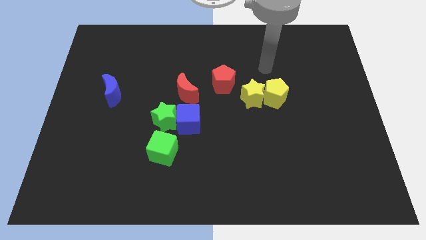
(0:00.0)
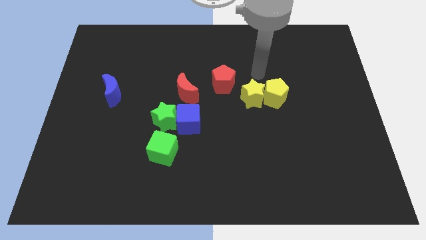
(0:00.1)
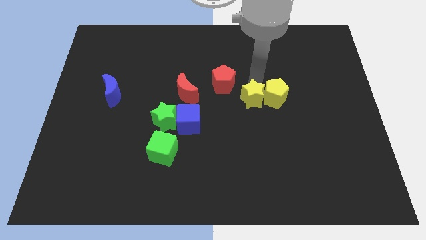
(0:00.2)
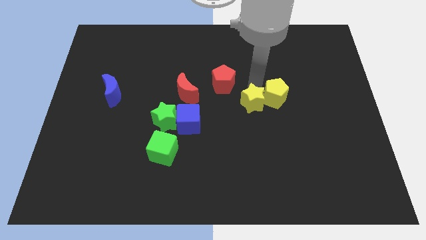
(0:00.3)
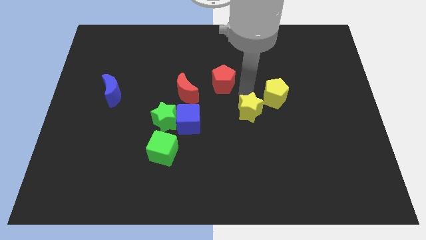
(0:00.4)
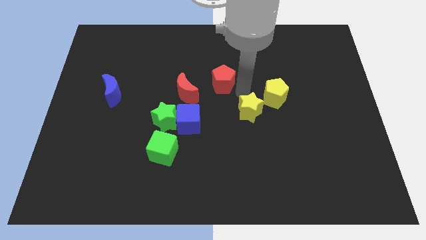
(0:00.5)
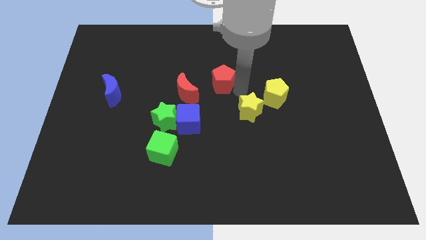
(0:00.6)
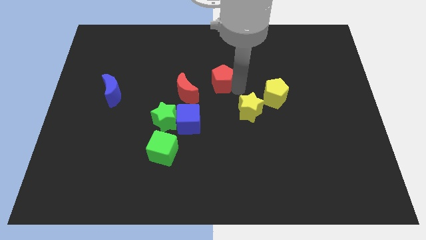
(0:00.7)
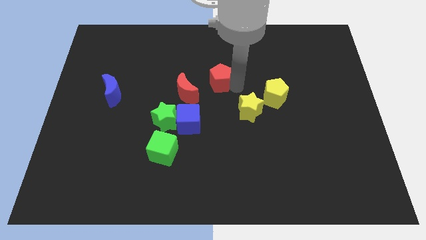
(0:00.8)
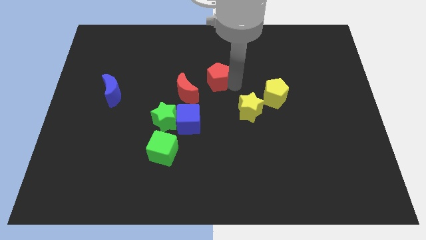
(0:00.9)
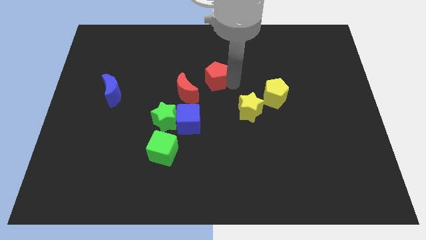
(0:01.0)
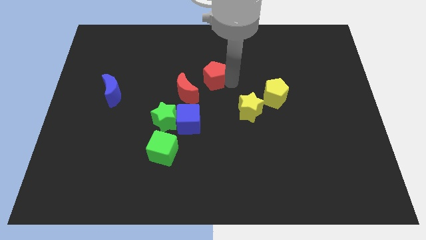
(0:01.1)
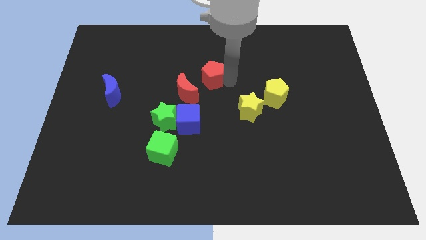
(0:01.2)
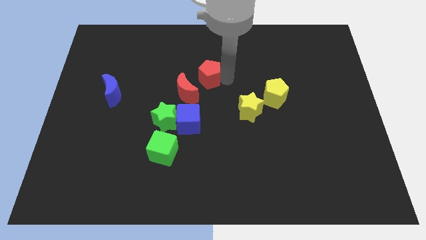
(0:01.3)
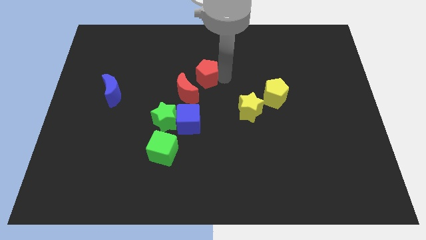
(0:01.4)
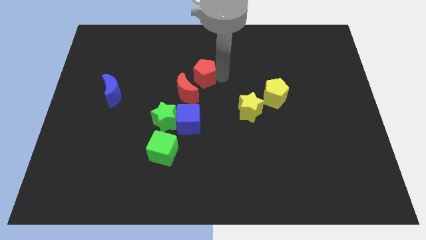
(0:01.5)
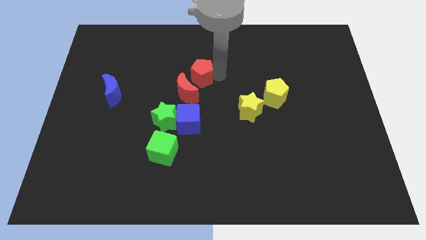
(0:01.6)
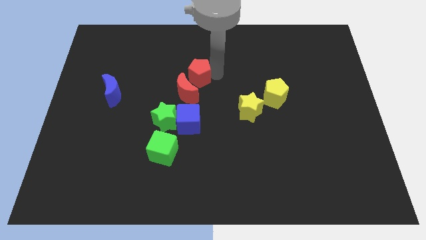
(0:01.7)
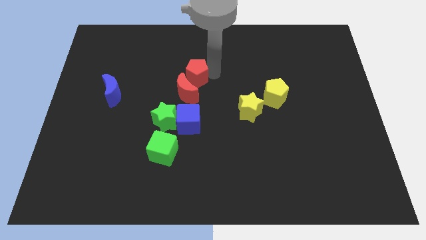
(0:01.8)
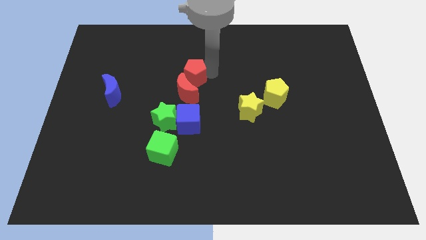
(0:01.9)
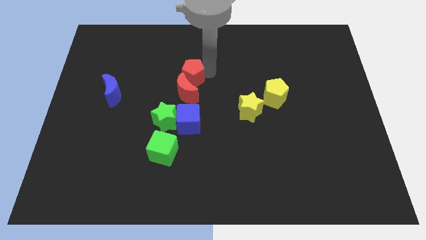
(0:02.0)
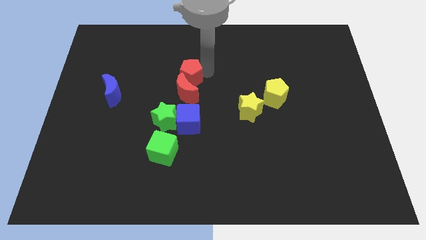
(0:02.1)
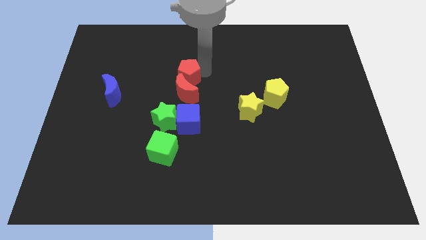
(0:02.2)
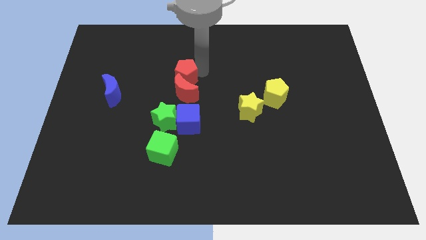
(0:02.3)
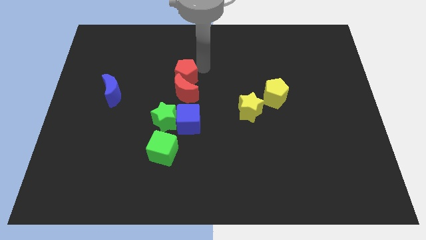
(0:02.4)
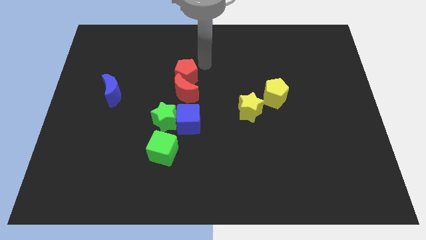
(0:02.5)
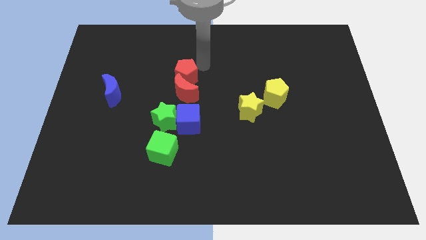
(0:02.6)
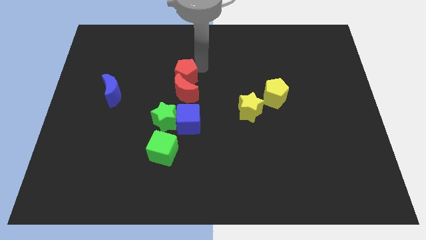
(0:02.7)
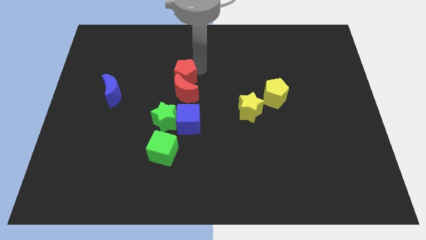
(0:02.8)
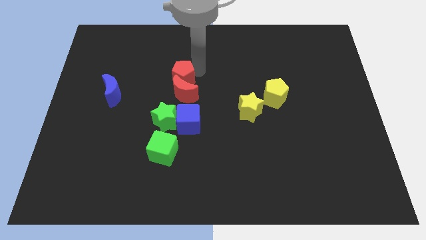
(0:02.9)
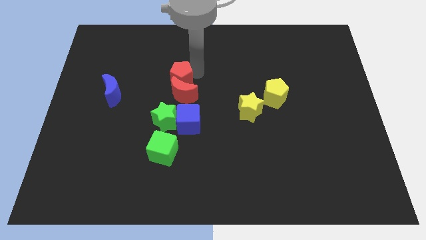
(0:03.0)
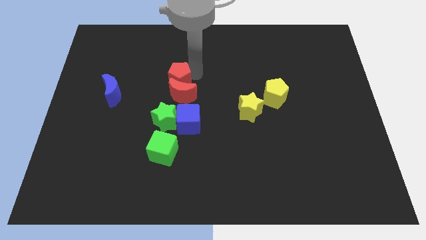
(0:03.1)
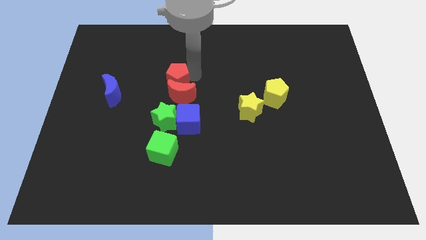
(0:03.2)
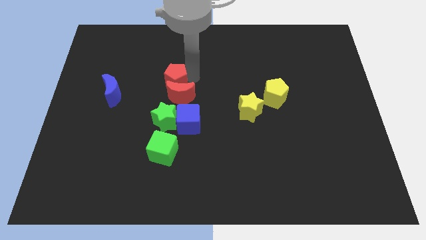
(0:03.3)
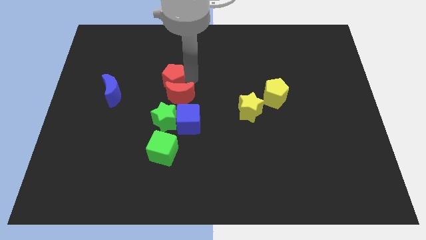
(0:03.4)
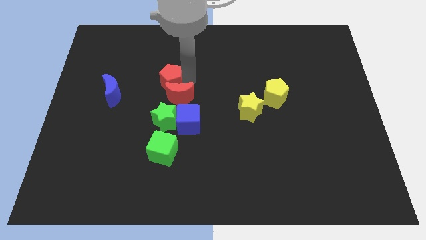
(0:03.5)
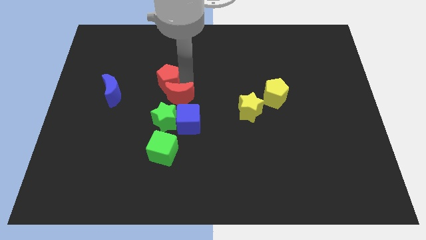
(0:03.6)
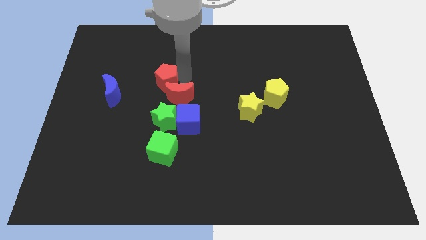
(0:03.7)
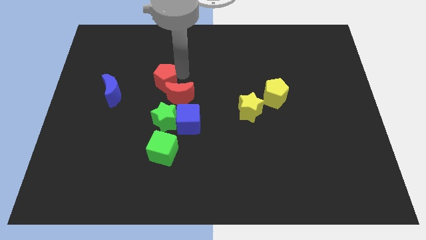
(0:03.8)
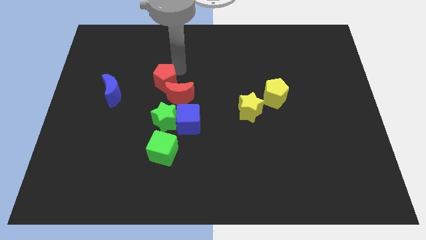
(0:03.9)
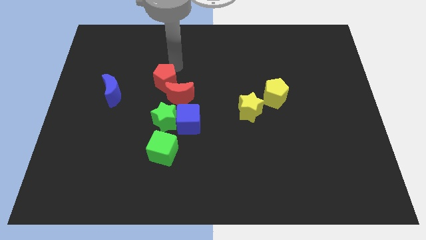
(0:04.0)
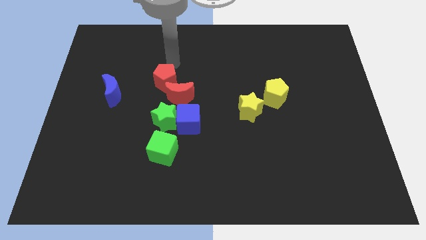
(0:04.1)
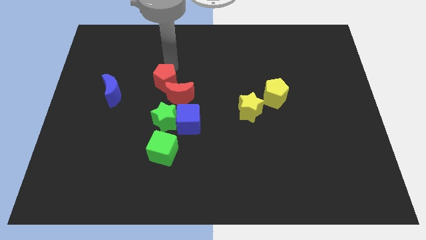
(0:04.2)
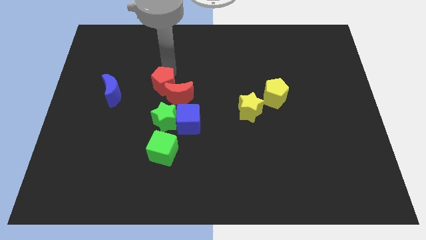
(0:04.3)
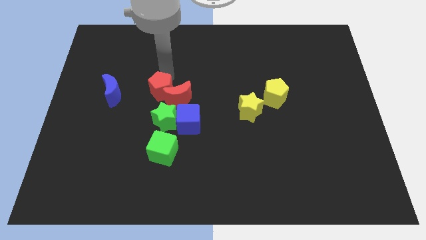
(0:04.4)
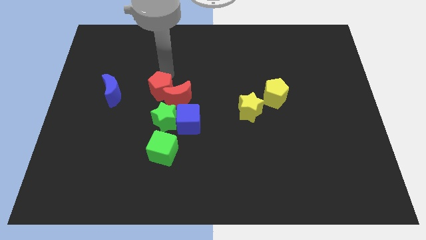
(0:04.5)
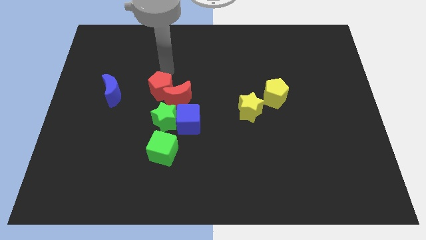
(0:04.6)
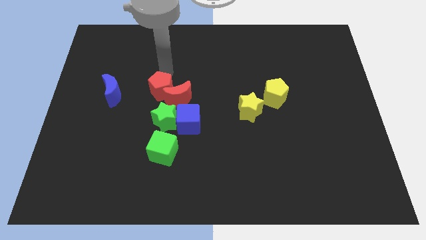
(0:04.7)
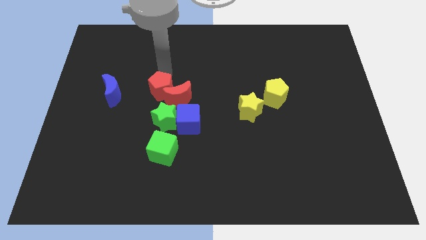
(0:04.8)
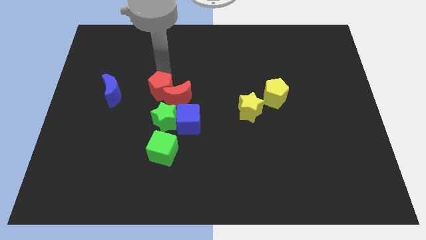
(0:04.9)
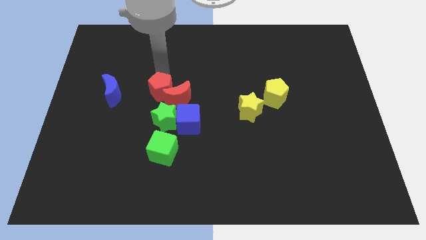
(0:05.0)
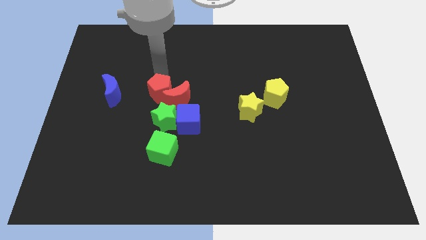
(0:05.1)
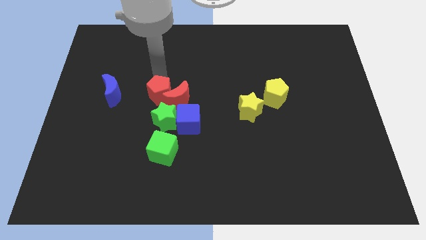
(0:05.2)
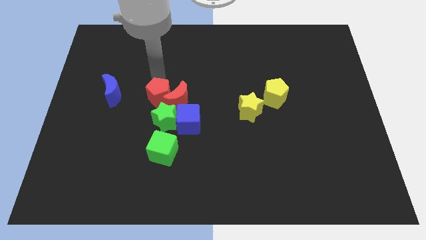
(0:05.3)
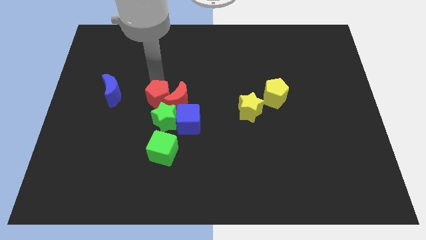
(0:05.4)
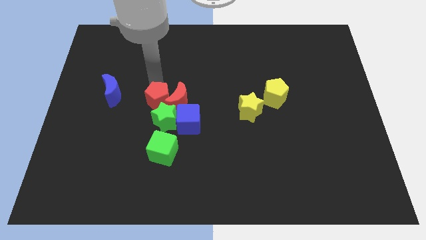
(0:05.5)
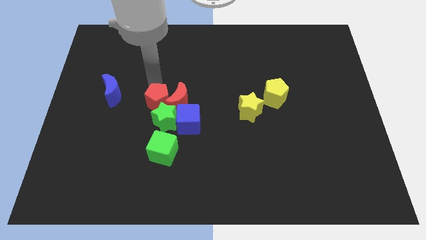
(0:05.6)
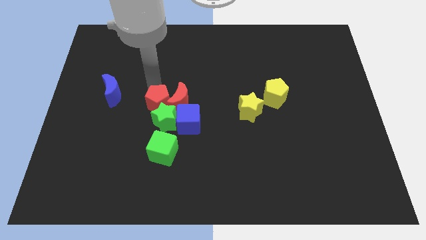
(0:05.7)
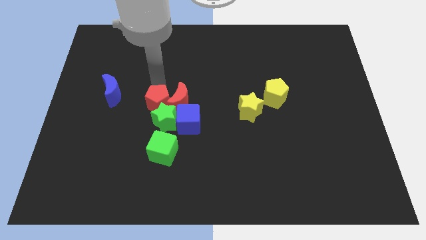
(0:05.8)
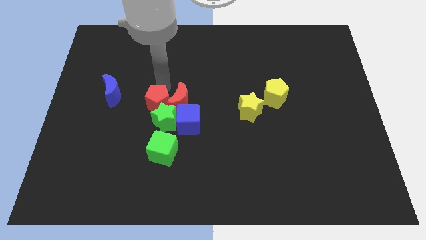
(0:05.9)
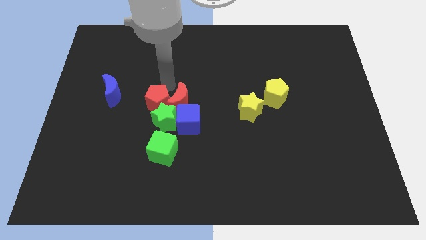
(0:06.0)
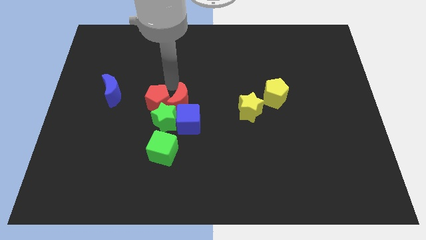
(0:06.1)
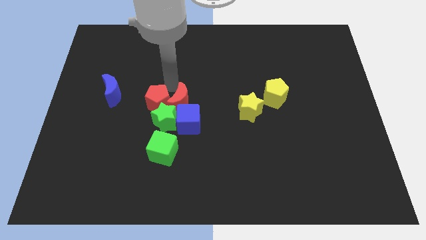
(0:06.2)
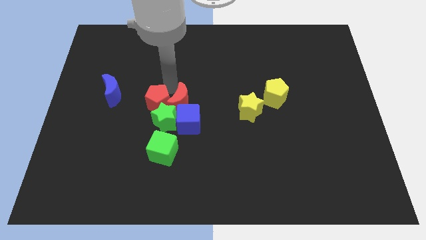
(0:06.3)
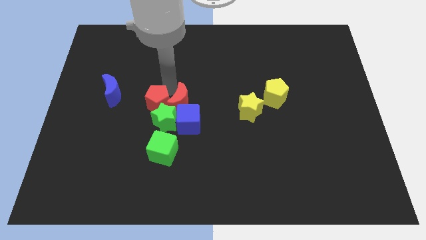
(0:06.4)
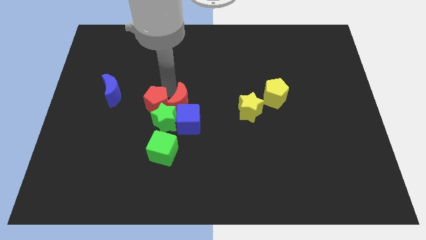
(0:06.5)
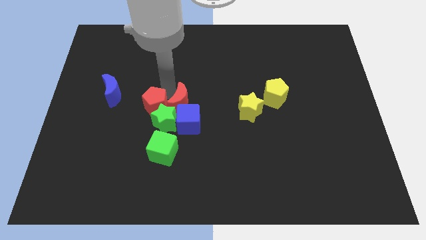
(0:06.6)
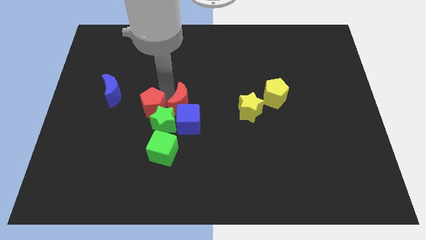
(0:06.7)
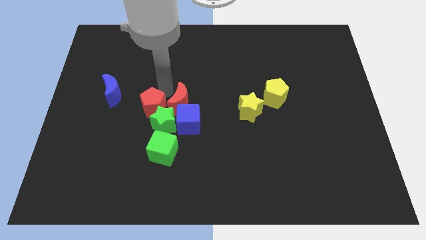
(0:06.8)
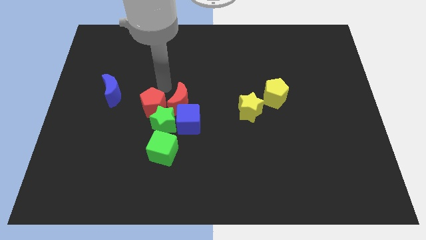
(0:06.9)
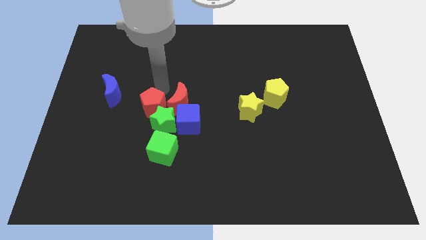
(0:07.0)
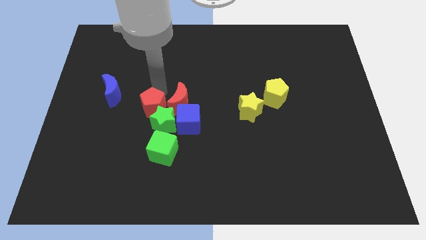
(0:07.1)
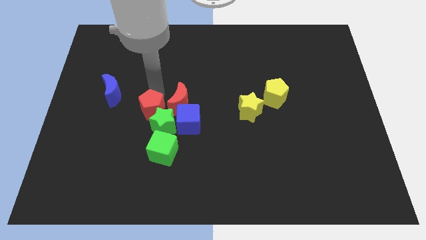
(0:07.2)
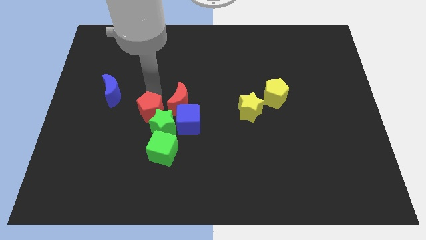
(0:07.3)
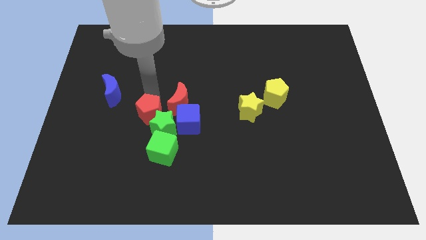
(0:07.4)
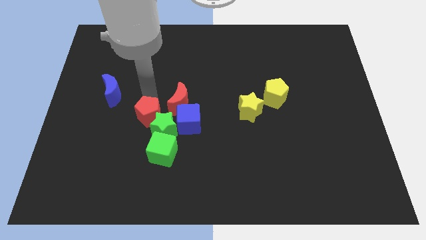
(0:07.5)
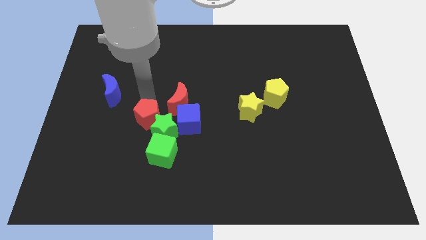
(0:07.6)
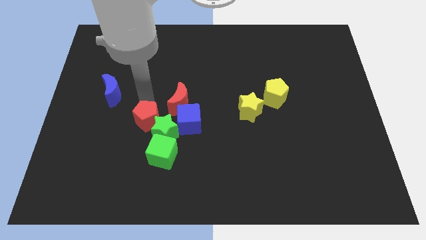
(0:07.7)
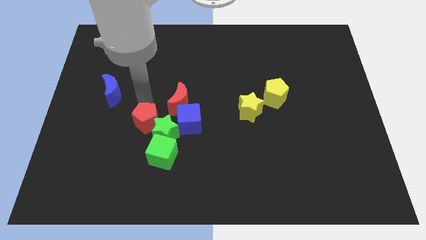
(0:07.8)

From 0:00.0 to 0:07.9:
push the red pentagon diagonally down and left
